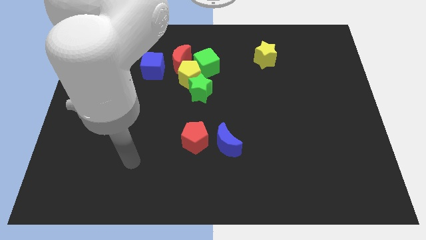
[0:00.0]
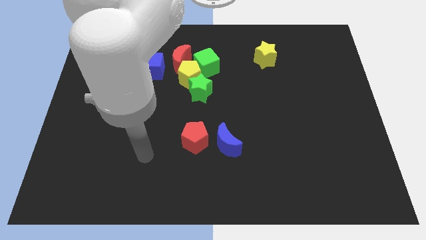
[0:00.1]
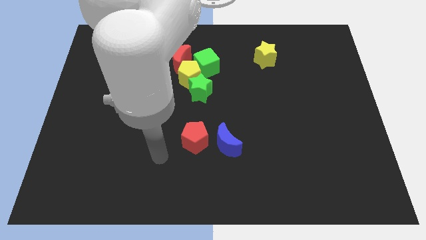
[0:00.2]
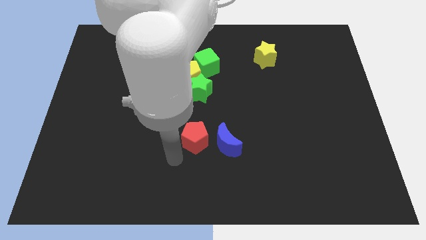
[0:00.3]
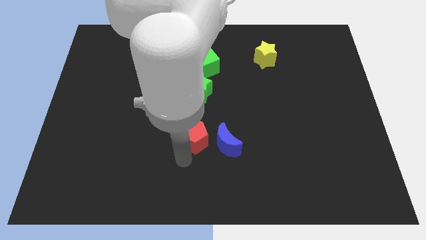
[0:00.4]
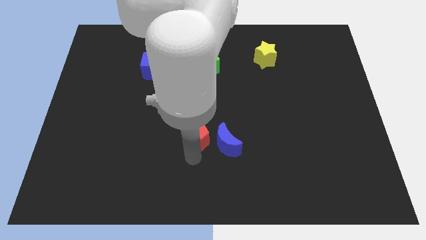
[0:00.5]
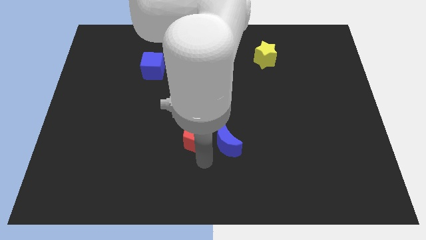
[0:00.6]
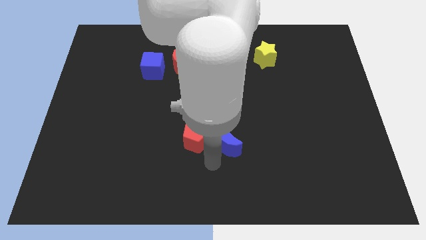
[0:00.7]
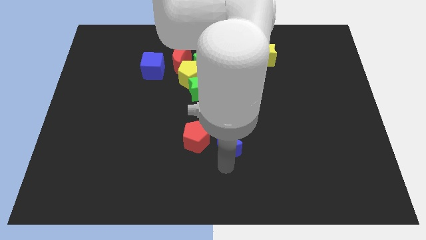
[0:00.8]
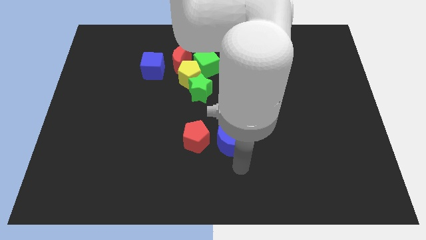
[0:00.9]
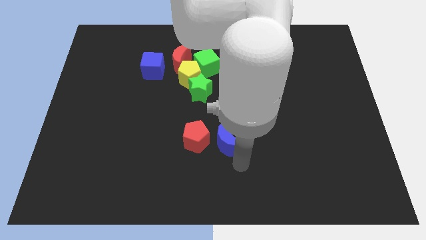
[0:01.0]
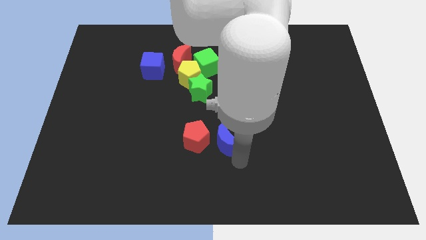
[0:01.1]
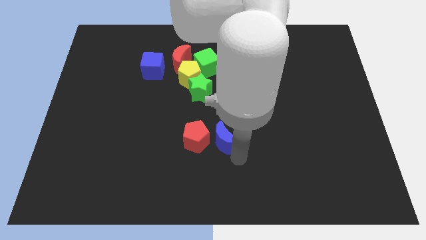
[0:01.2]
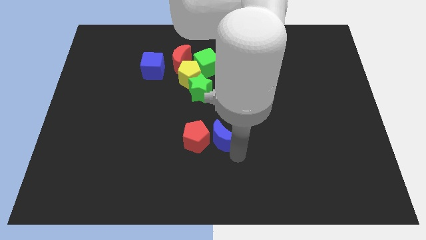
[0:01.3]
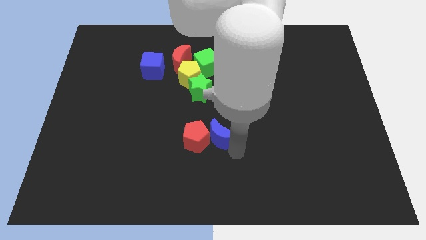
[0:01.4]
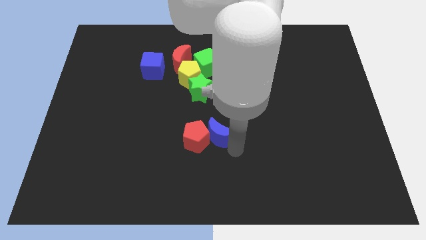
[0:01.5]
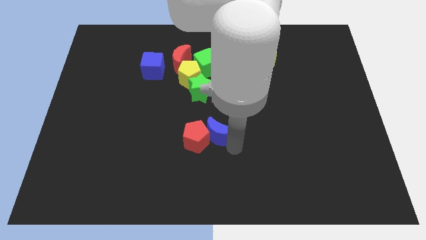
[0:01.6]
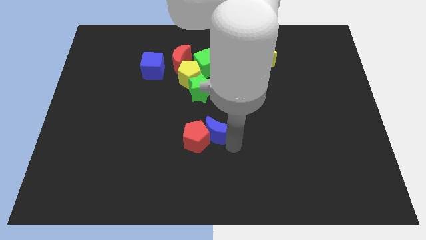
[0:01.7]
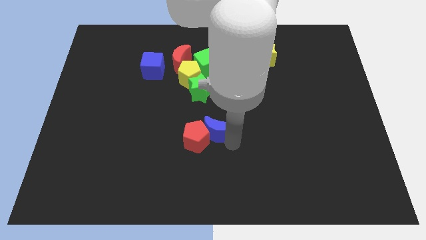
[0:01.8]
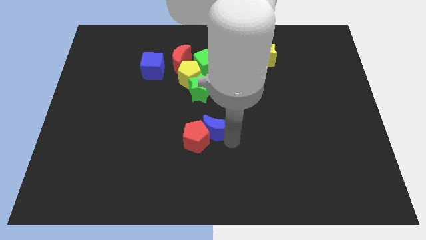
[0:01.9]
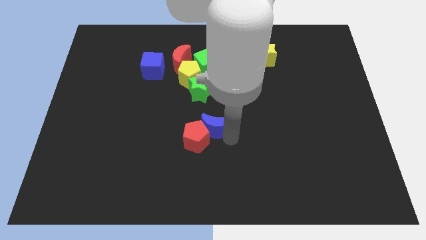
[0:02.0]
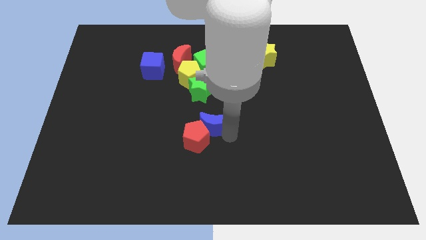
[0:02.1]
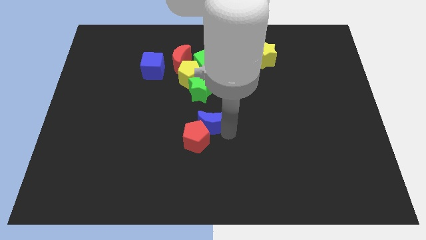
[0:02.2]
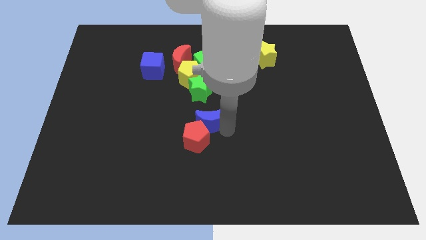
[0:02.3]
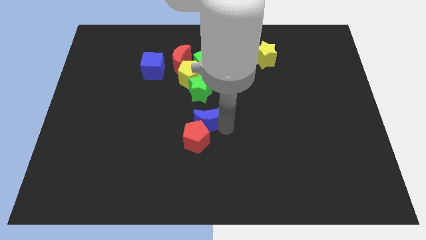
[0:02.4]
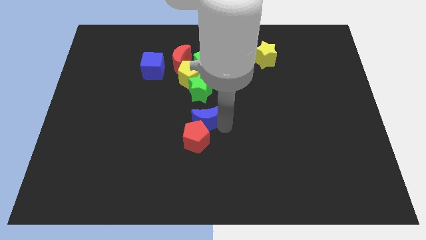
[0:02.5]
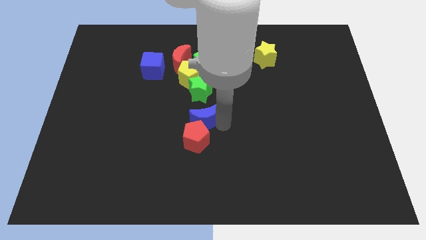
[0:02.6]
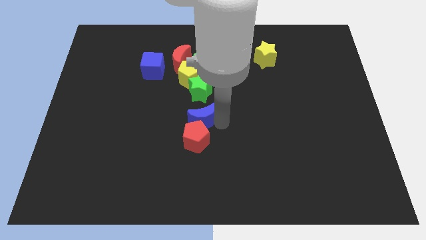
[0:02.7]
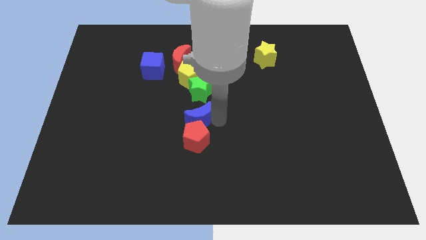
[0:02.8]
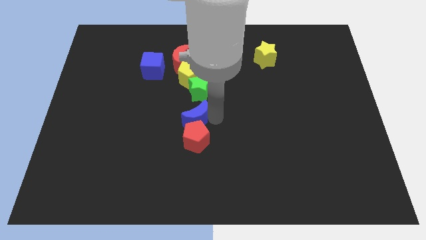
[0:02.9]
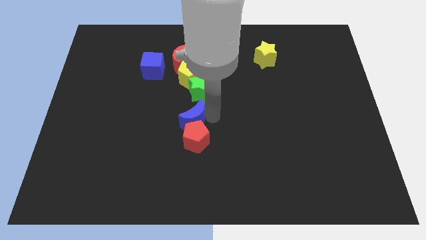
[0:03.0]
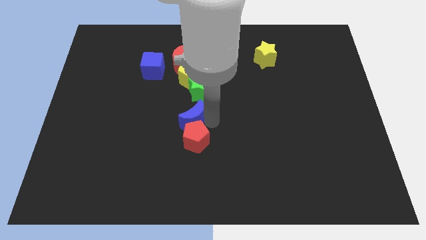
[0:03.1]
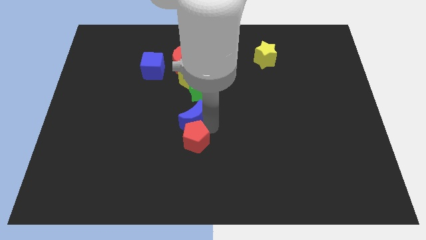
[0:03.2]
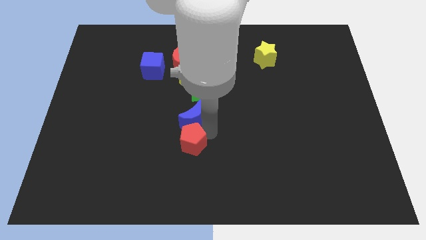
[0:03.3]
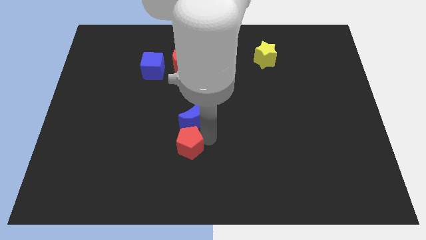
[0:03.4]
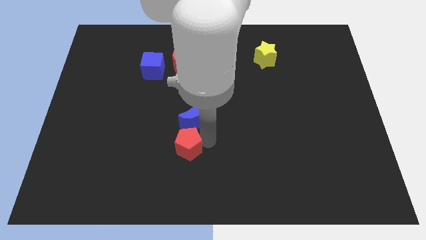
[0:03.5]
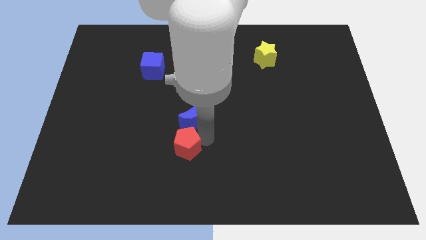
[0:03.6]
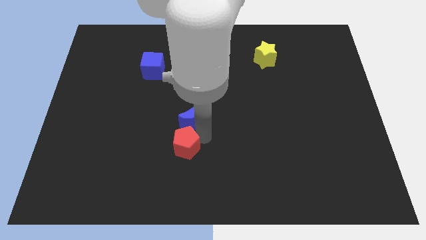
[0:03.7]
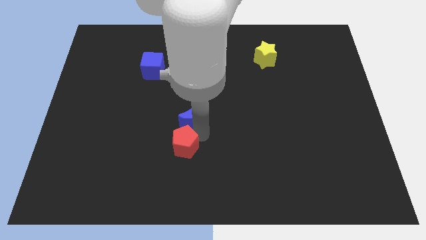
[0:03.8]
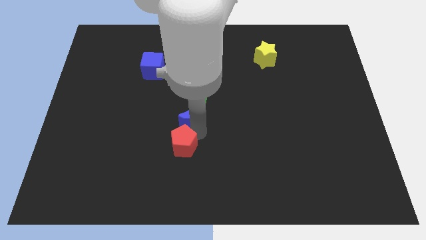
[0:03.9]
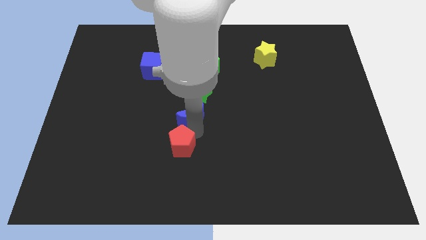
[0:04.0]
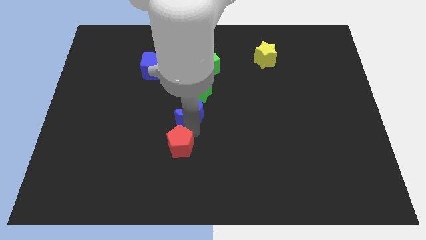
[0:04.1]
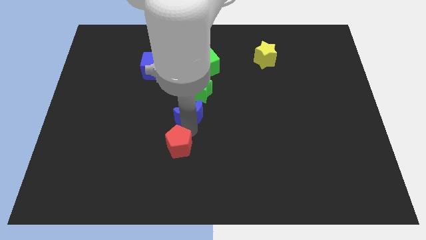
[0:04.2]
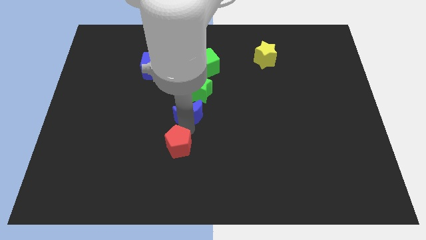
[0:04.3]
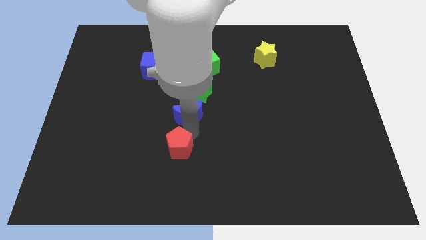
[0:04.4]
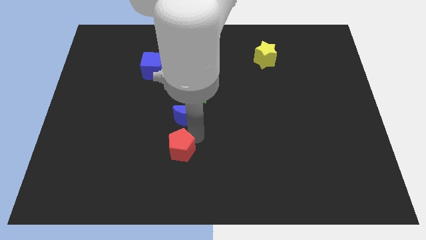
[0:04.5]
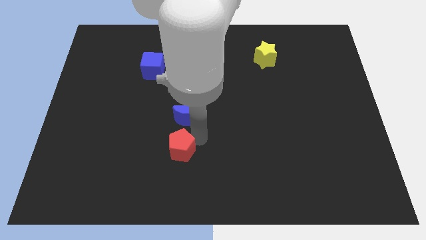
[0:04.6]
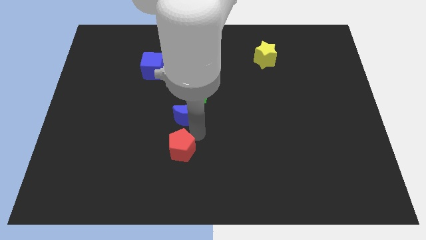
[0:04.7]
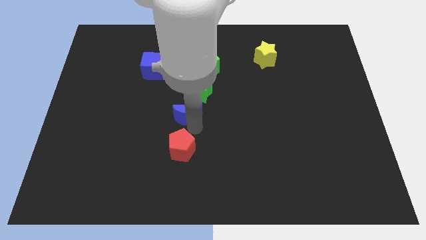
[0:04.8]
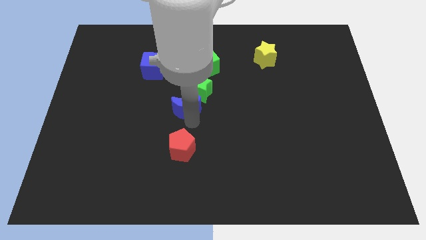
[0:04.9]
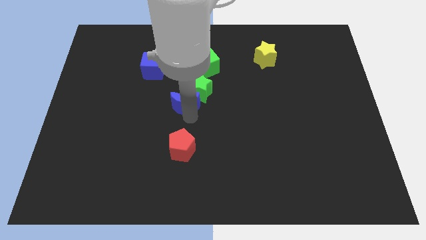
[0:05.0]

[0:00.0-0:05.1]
slide the blue moon left of the green star

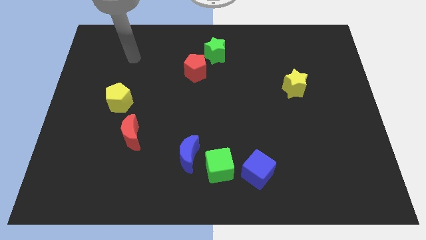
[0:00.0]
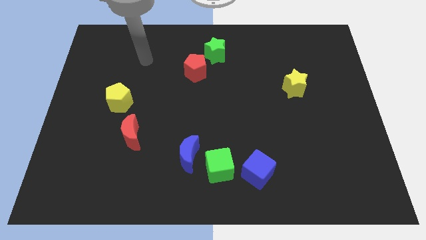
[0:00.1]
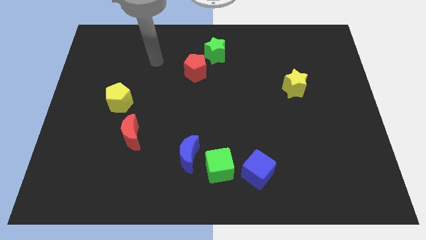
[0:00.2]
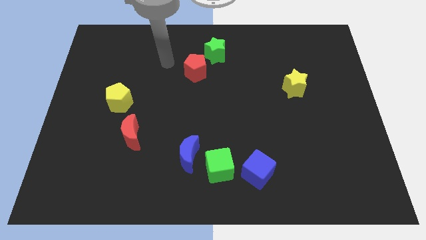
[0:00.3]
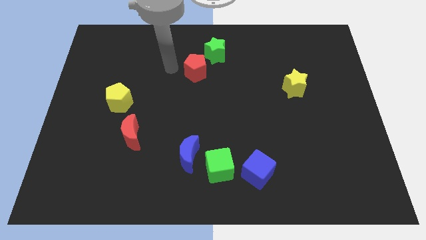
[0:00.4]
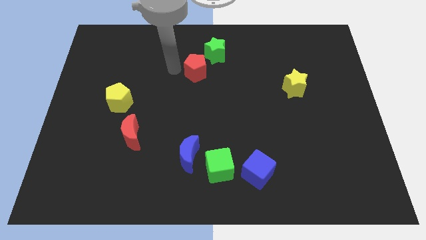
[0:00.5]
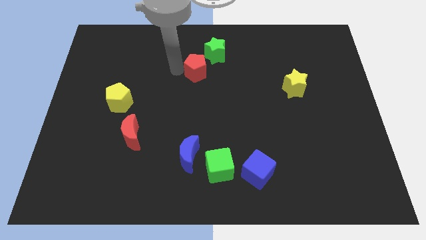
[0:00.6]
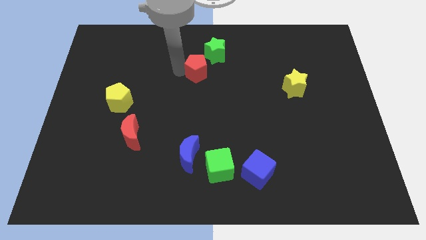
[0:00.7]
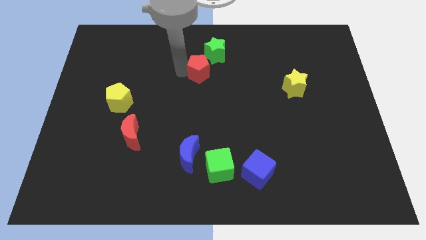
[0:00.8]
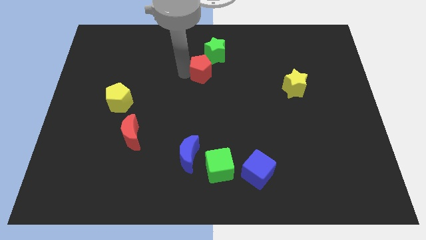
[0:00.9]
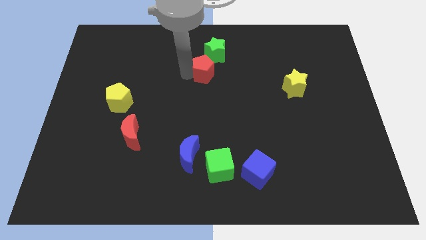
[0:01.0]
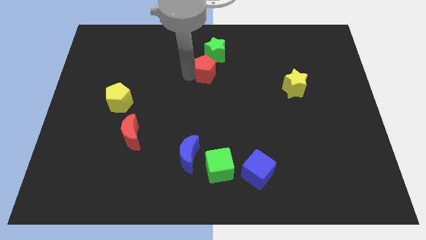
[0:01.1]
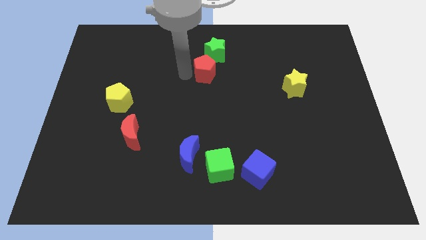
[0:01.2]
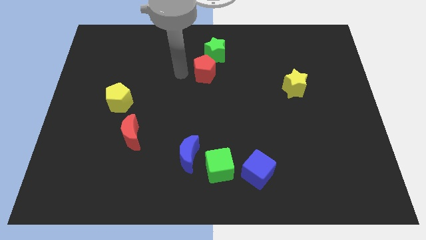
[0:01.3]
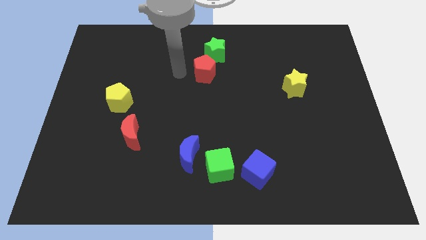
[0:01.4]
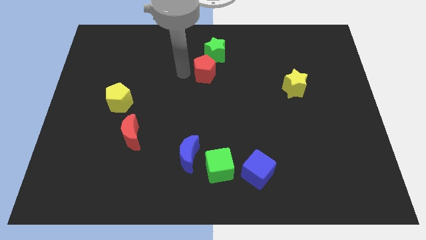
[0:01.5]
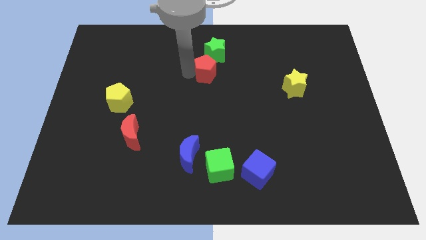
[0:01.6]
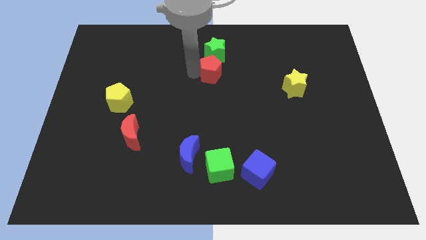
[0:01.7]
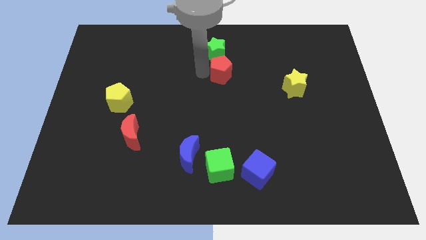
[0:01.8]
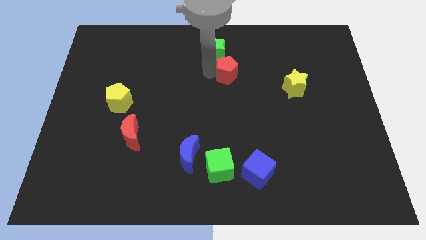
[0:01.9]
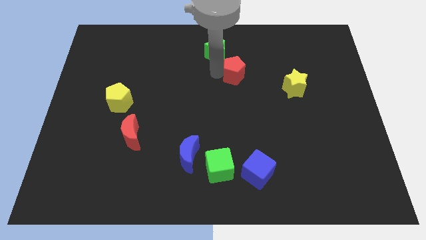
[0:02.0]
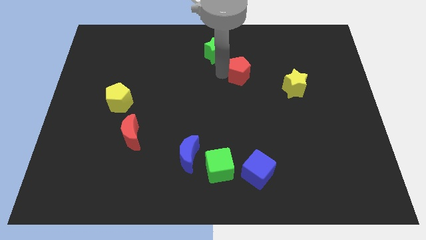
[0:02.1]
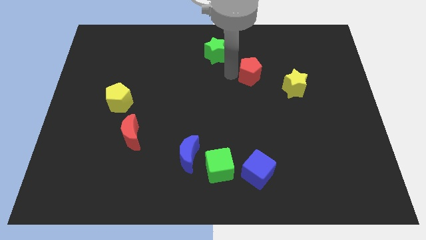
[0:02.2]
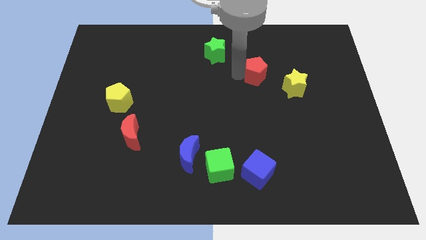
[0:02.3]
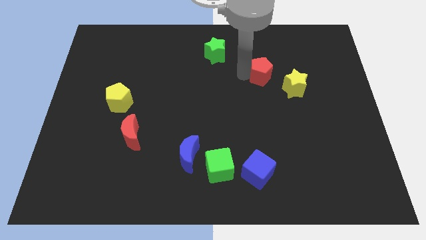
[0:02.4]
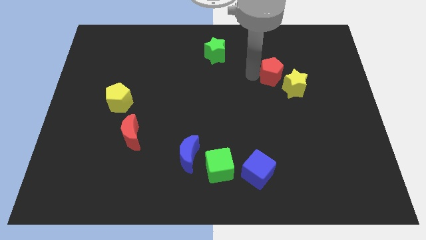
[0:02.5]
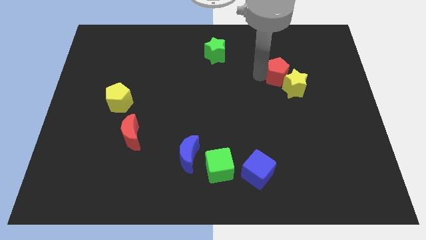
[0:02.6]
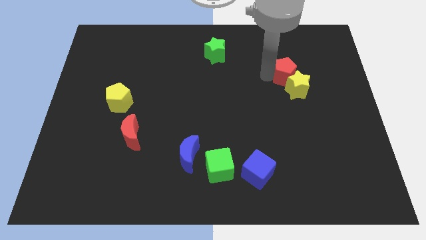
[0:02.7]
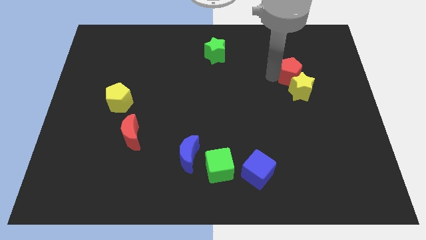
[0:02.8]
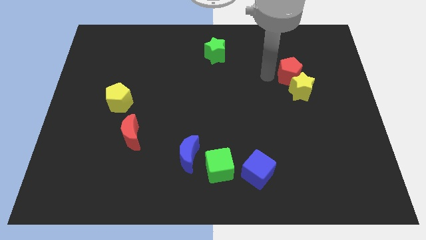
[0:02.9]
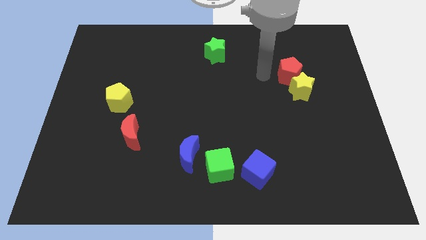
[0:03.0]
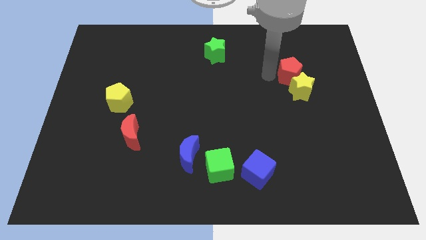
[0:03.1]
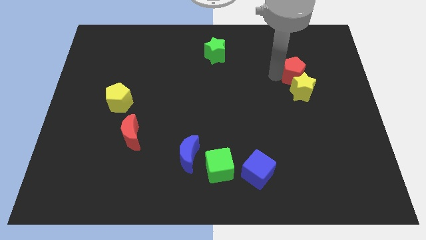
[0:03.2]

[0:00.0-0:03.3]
slide the red pentagon diagonally up and to the right of the yellow star
